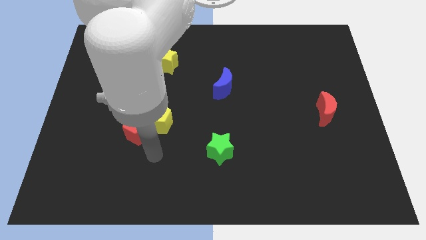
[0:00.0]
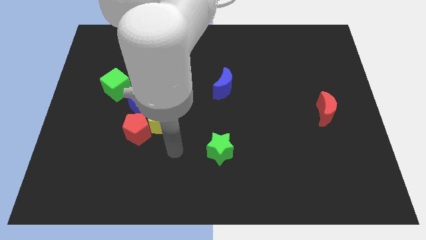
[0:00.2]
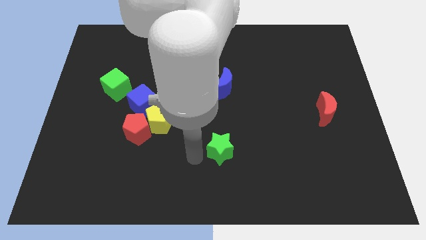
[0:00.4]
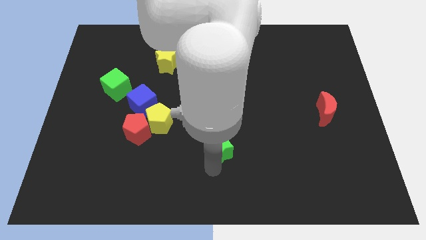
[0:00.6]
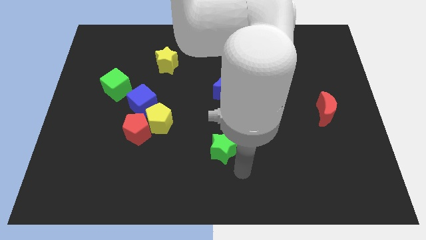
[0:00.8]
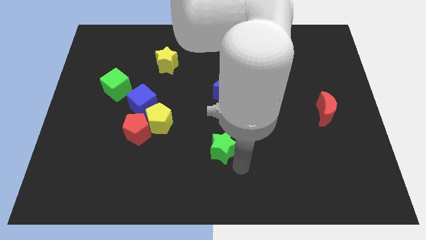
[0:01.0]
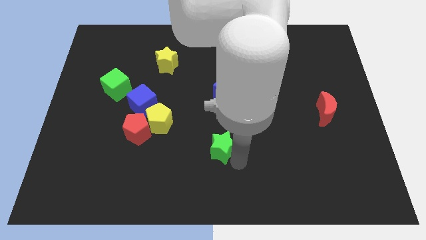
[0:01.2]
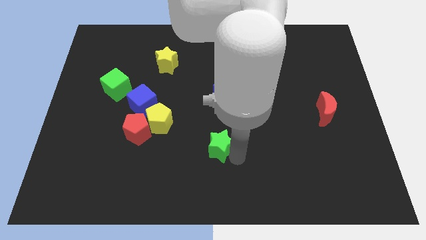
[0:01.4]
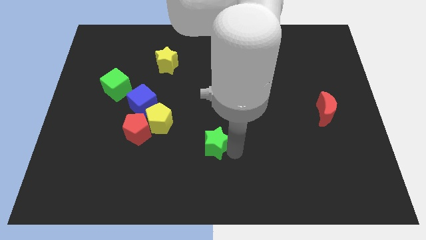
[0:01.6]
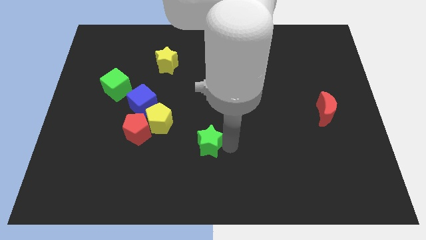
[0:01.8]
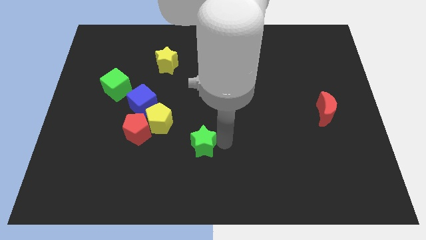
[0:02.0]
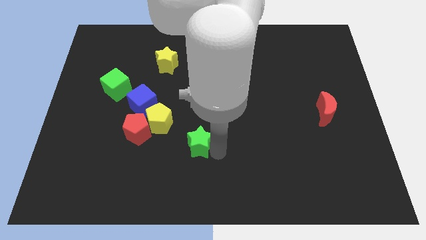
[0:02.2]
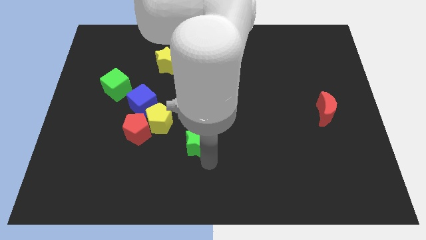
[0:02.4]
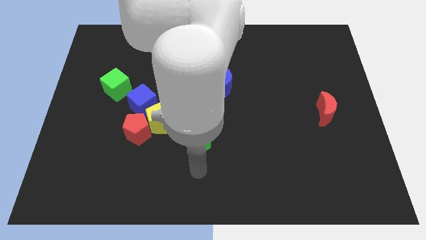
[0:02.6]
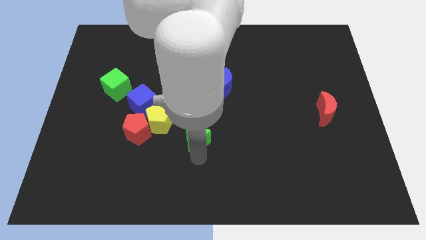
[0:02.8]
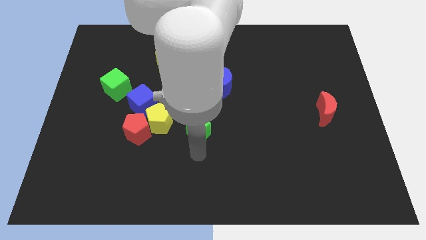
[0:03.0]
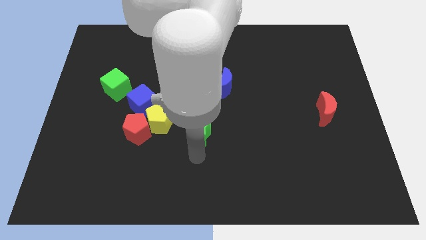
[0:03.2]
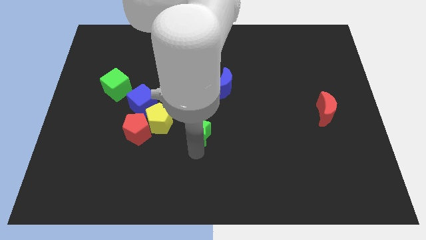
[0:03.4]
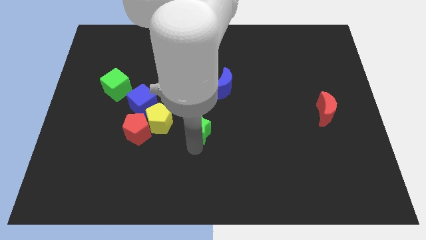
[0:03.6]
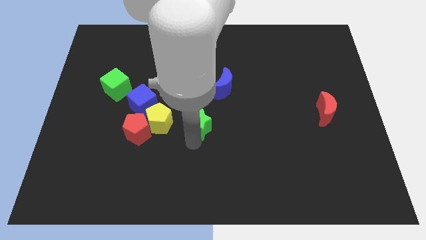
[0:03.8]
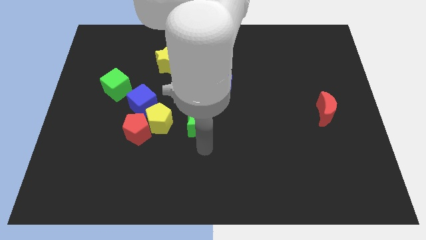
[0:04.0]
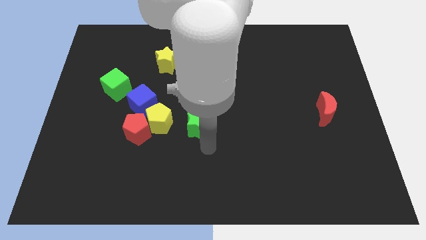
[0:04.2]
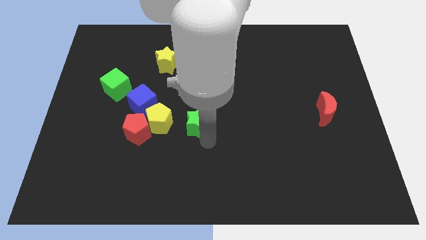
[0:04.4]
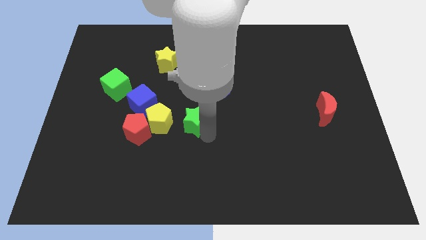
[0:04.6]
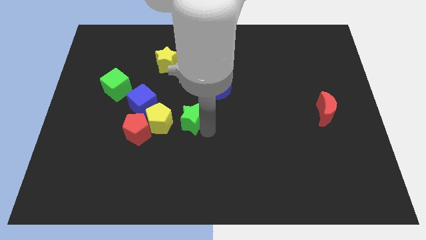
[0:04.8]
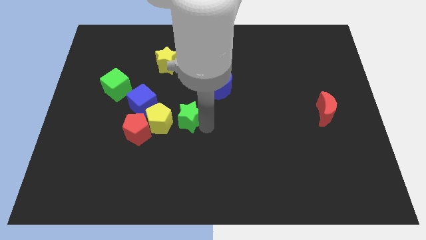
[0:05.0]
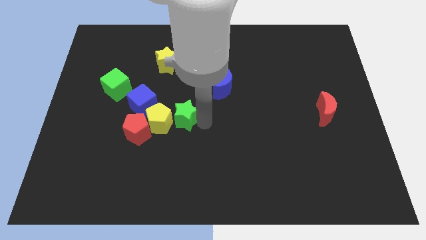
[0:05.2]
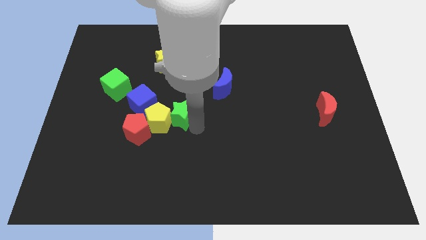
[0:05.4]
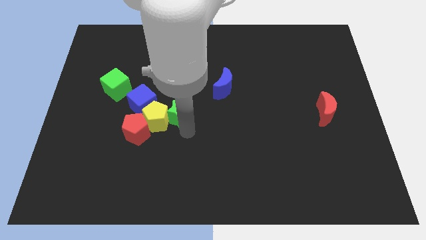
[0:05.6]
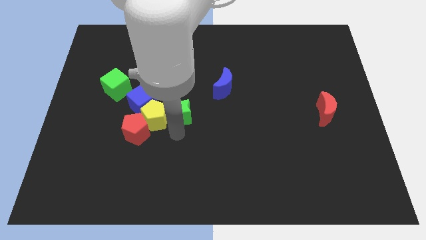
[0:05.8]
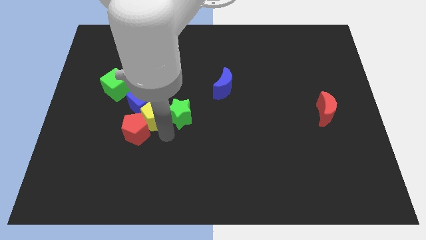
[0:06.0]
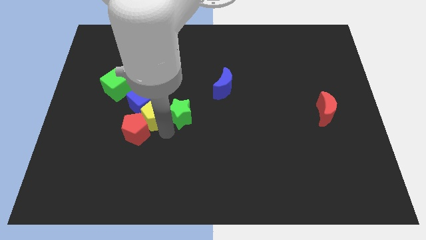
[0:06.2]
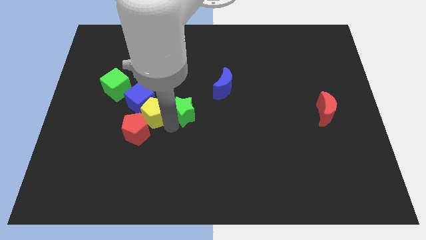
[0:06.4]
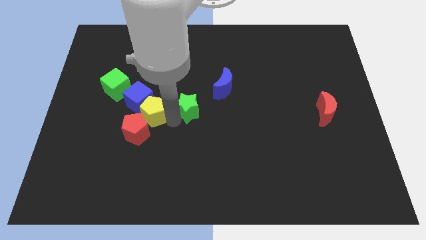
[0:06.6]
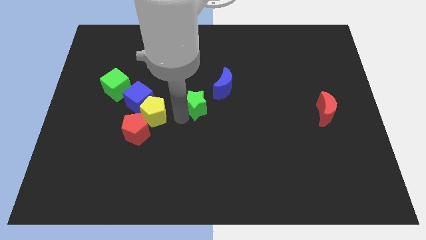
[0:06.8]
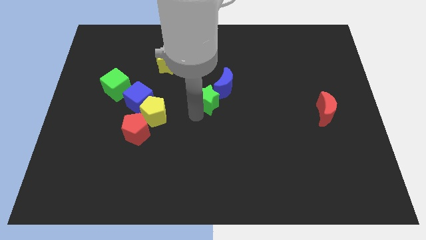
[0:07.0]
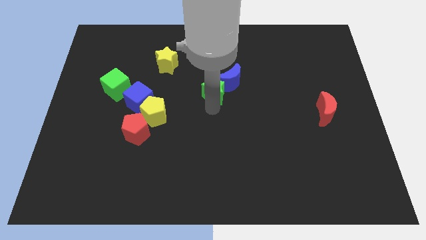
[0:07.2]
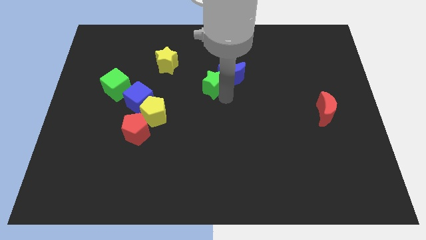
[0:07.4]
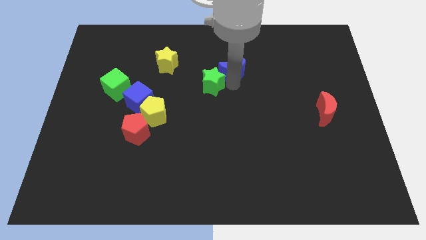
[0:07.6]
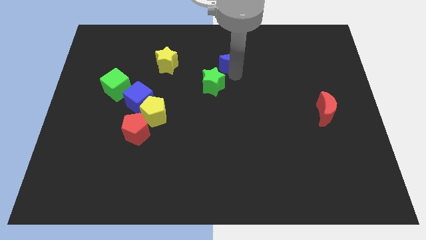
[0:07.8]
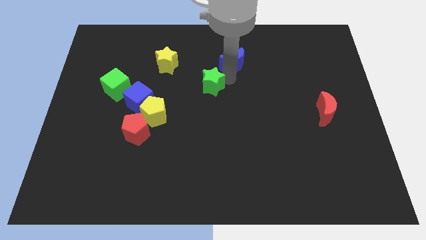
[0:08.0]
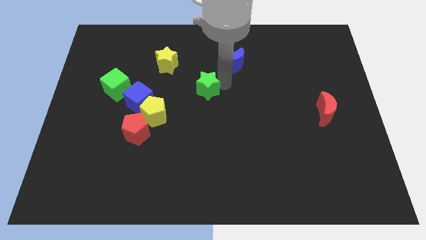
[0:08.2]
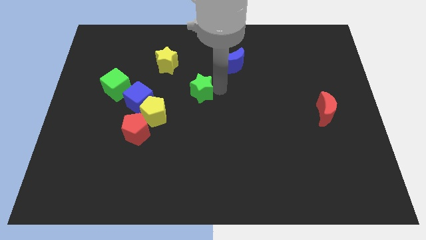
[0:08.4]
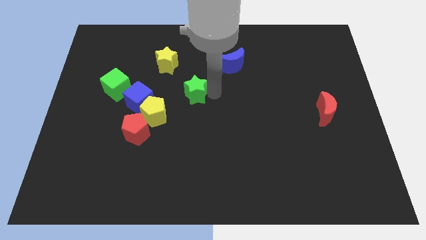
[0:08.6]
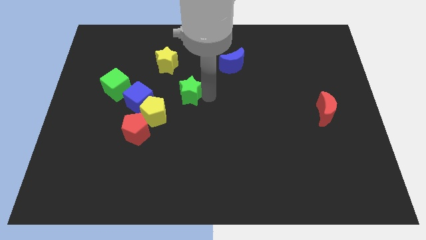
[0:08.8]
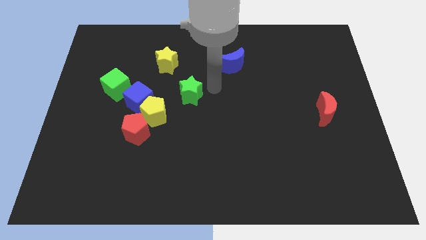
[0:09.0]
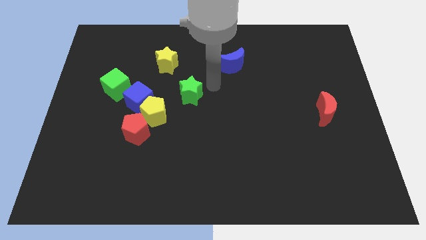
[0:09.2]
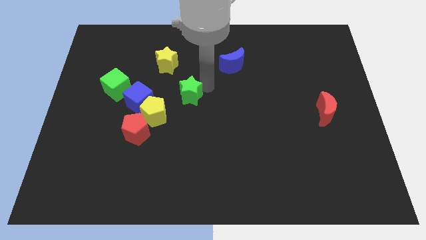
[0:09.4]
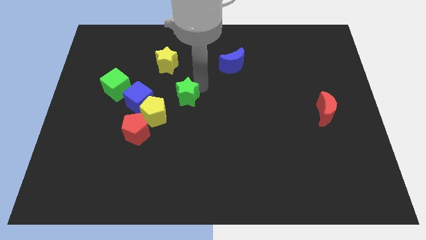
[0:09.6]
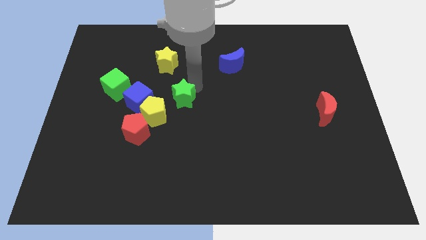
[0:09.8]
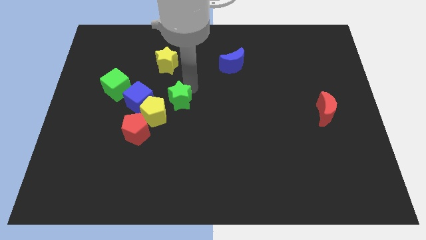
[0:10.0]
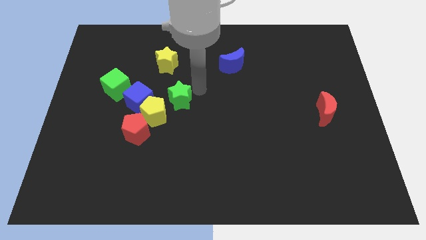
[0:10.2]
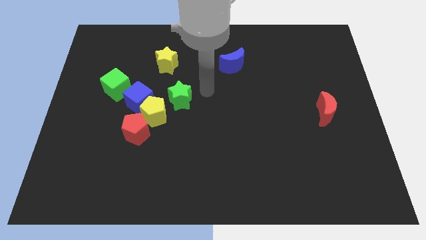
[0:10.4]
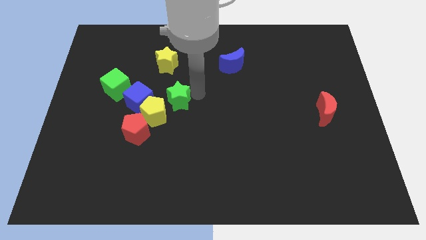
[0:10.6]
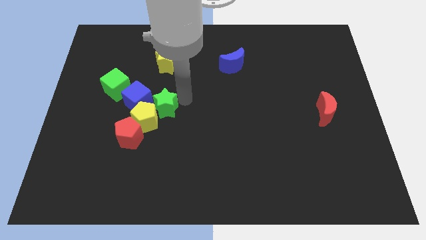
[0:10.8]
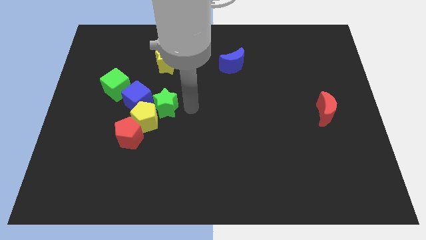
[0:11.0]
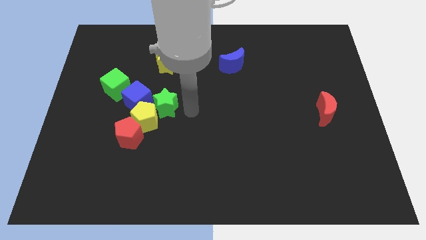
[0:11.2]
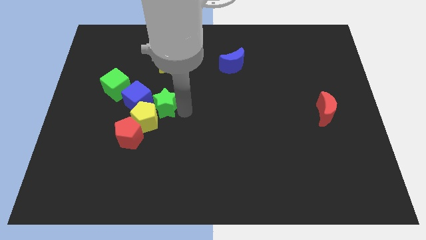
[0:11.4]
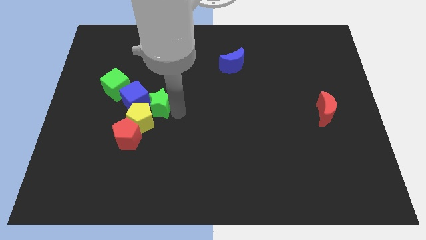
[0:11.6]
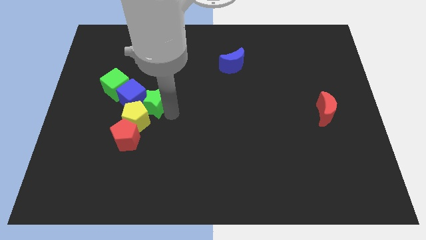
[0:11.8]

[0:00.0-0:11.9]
move the green star close to the blue cube

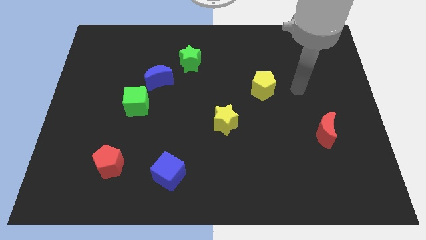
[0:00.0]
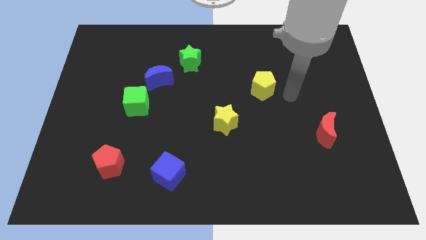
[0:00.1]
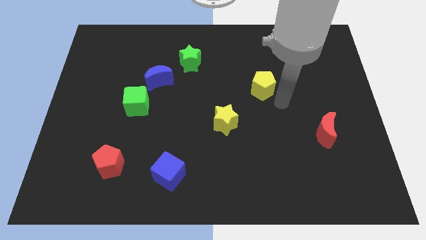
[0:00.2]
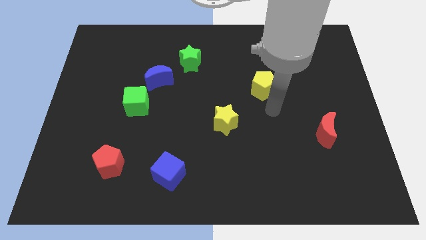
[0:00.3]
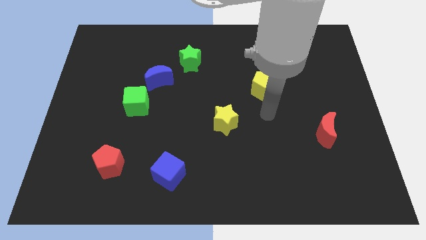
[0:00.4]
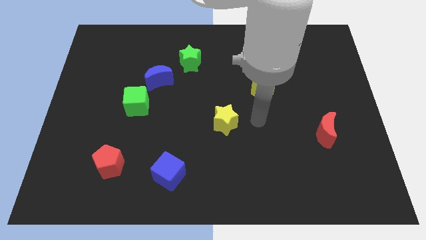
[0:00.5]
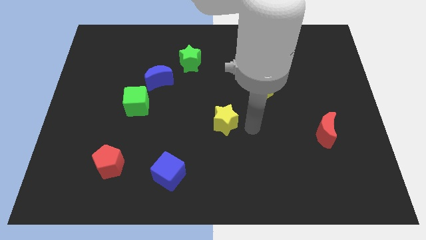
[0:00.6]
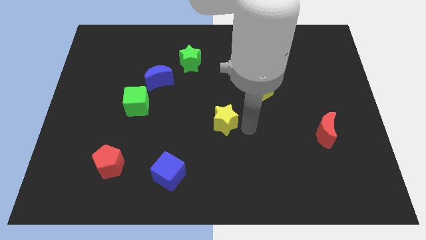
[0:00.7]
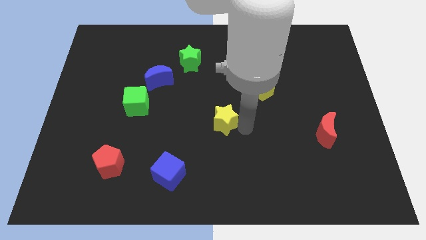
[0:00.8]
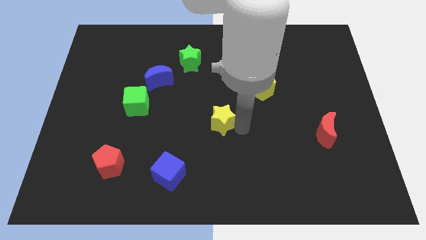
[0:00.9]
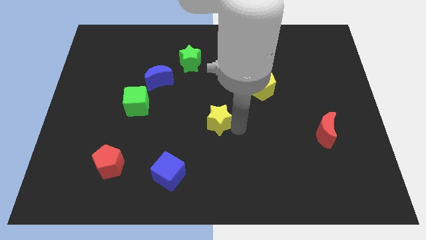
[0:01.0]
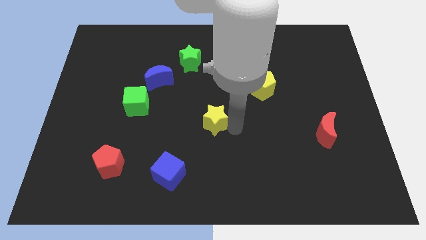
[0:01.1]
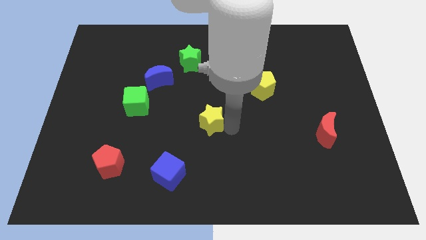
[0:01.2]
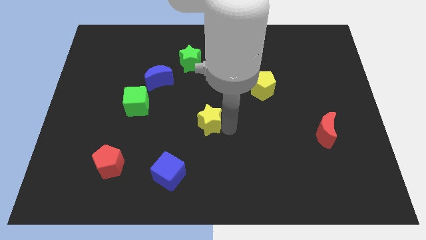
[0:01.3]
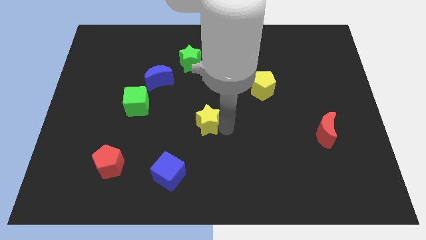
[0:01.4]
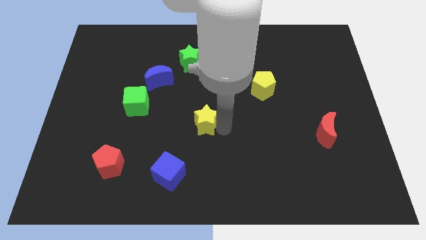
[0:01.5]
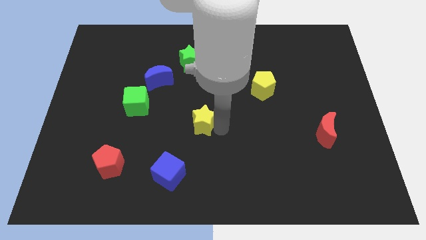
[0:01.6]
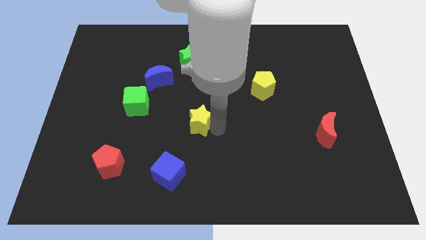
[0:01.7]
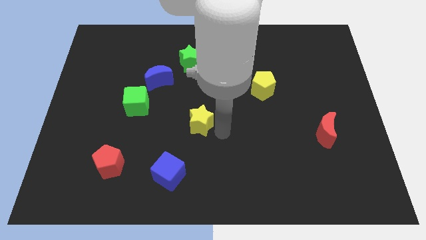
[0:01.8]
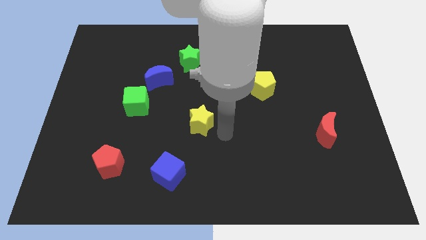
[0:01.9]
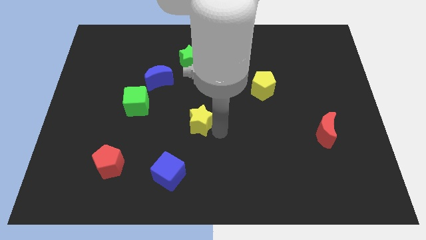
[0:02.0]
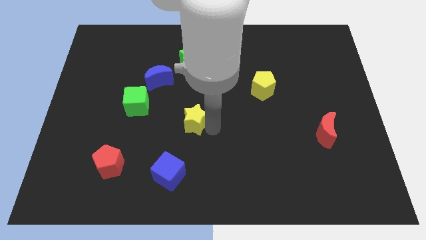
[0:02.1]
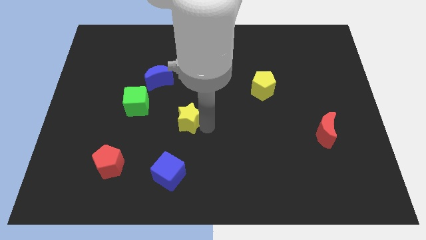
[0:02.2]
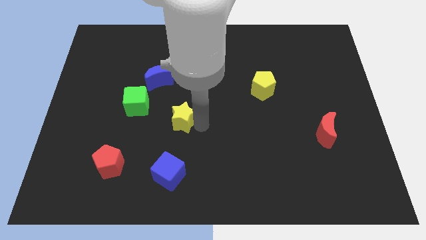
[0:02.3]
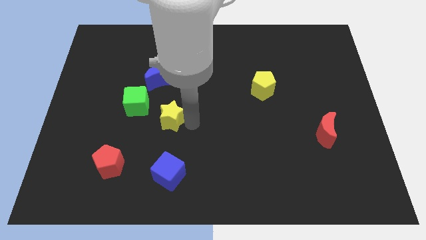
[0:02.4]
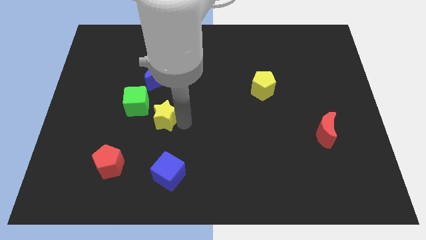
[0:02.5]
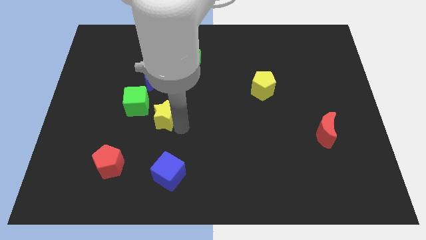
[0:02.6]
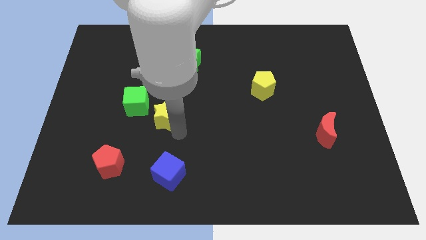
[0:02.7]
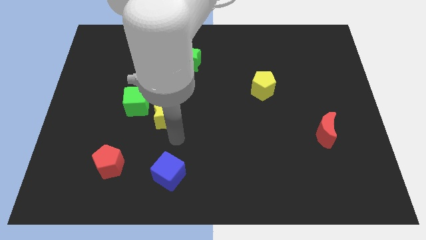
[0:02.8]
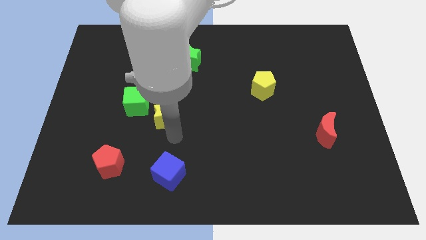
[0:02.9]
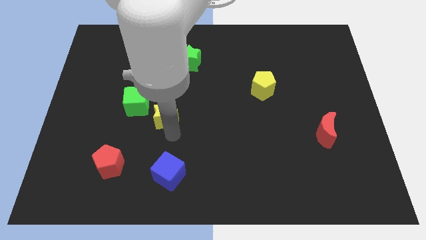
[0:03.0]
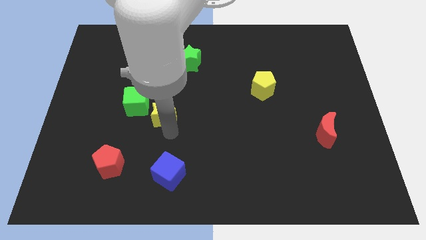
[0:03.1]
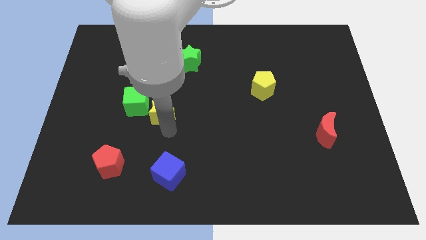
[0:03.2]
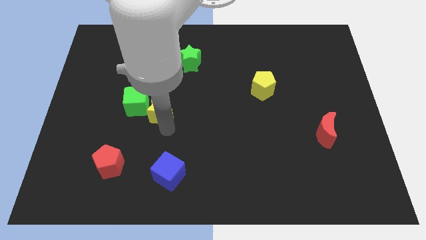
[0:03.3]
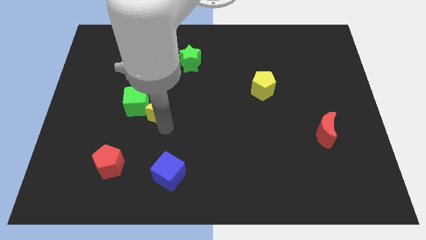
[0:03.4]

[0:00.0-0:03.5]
put the yellow star to the green cube
